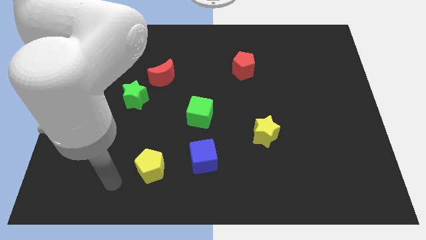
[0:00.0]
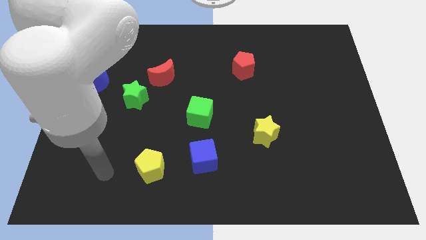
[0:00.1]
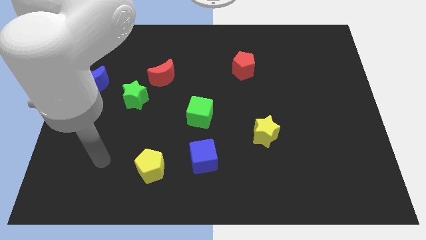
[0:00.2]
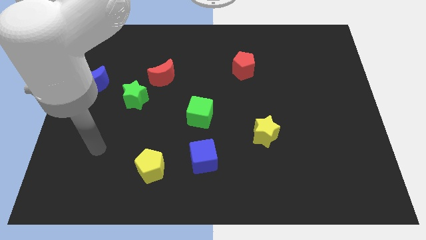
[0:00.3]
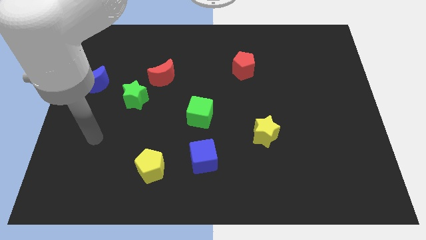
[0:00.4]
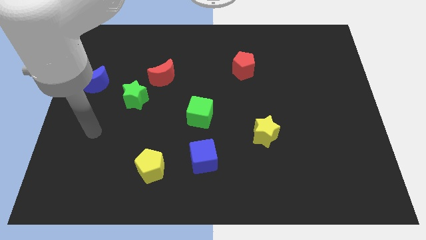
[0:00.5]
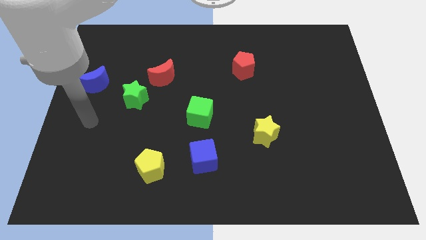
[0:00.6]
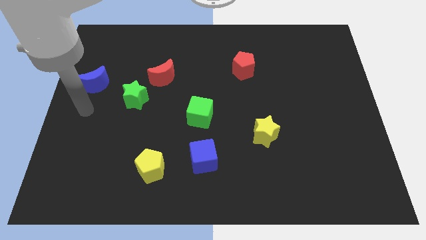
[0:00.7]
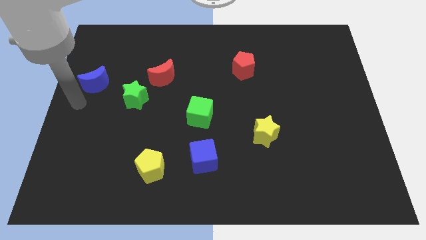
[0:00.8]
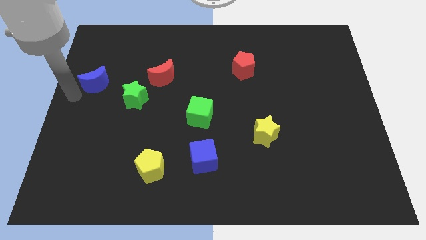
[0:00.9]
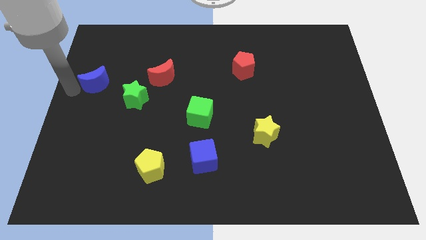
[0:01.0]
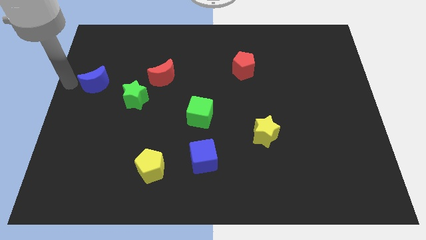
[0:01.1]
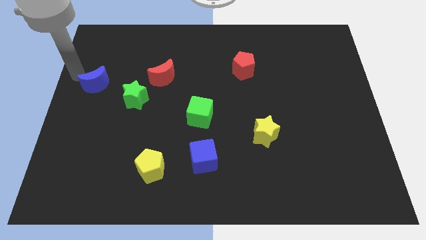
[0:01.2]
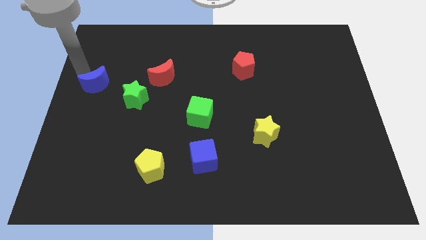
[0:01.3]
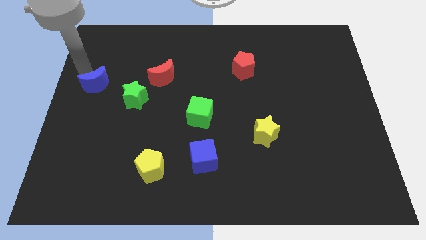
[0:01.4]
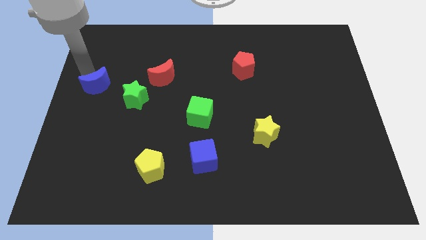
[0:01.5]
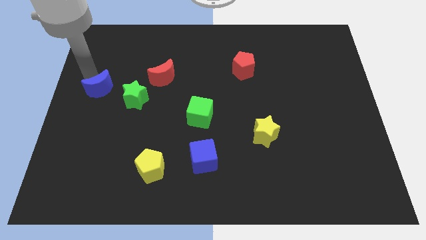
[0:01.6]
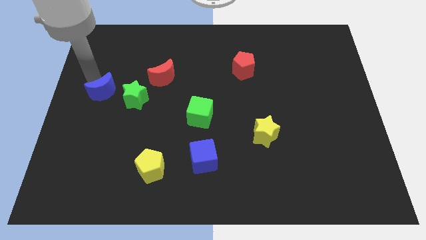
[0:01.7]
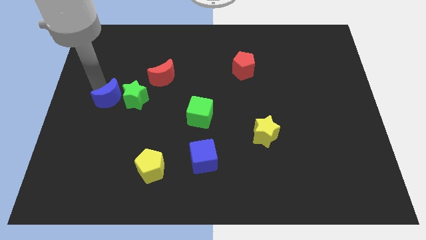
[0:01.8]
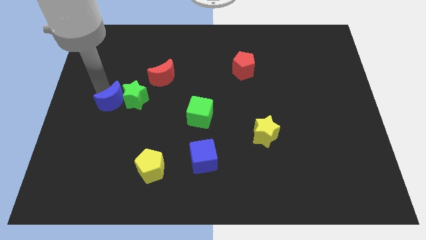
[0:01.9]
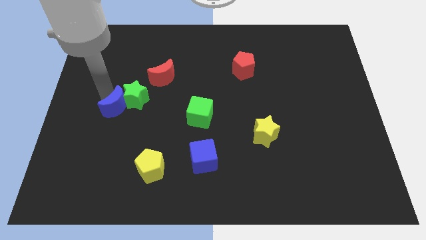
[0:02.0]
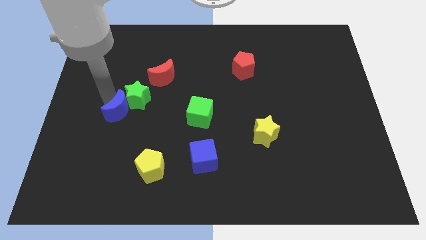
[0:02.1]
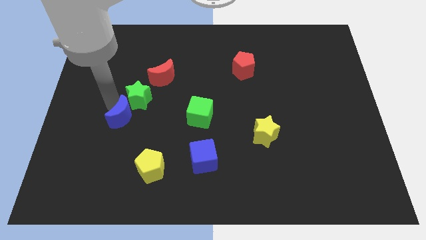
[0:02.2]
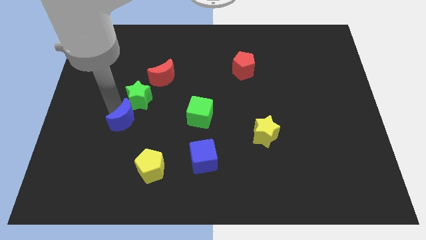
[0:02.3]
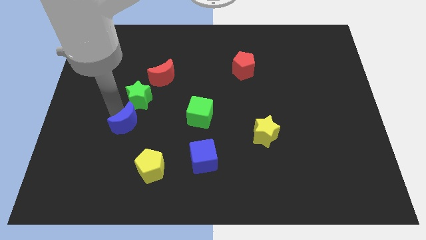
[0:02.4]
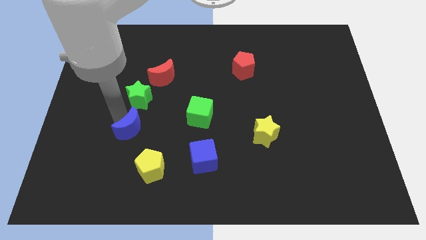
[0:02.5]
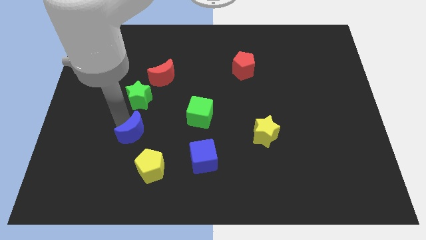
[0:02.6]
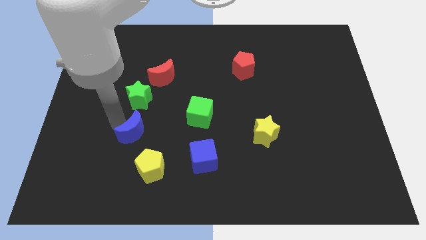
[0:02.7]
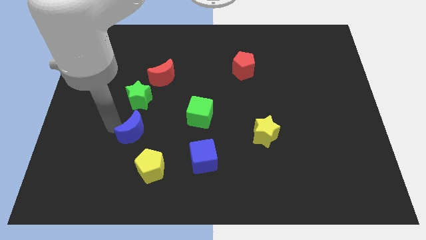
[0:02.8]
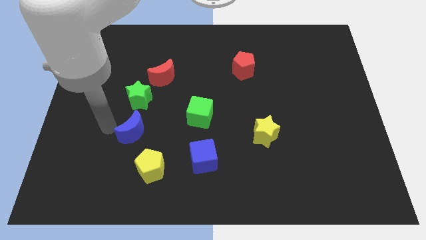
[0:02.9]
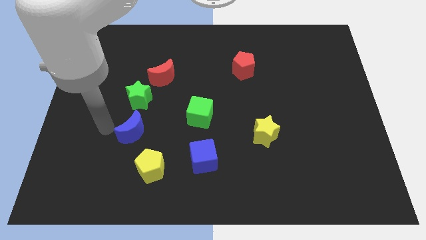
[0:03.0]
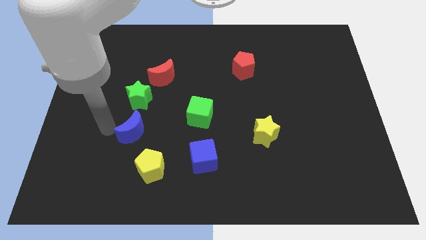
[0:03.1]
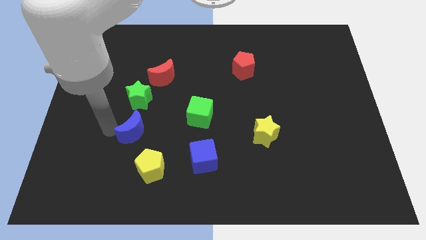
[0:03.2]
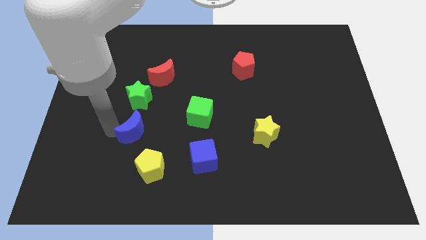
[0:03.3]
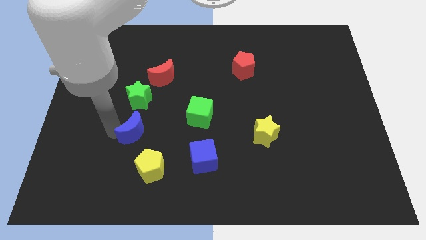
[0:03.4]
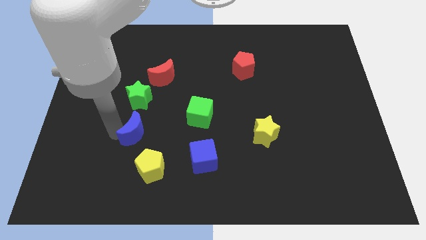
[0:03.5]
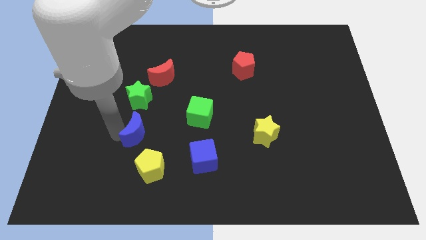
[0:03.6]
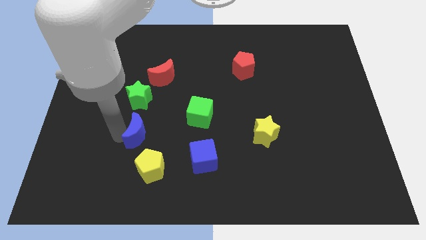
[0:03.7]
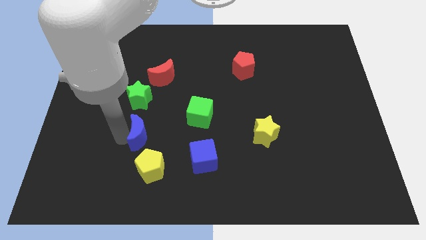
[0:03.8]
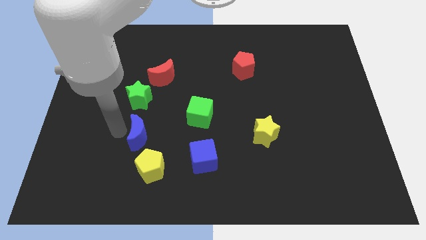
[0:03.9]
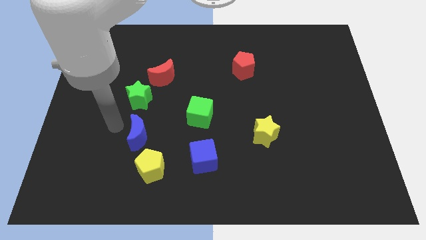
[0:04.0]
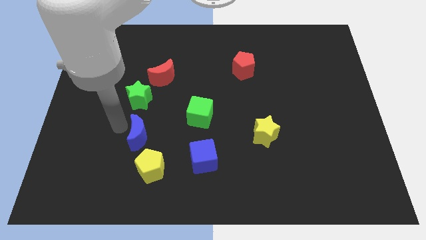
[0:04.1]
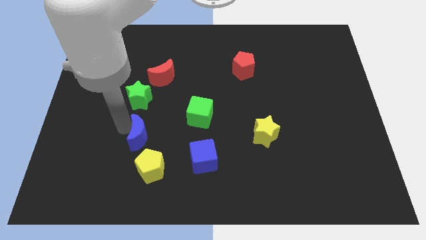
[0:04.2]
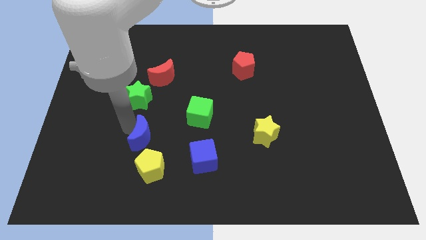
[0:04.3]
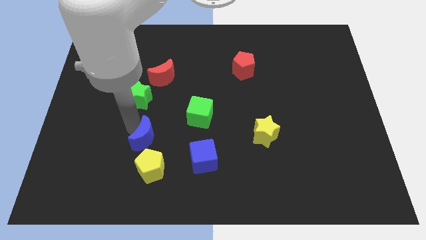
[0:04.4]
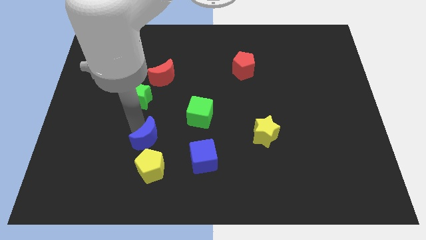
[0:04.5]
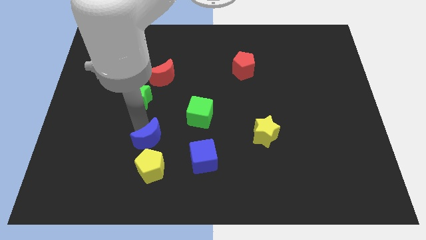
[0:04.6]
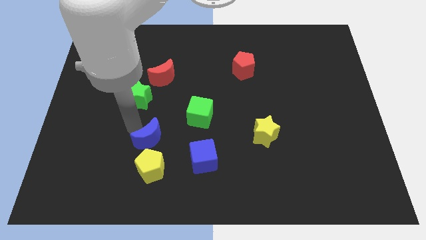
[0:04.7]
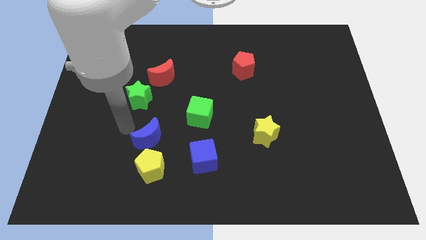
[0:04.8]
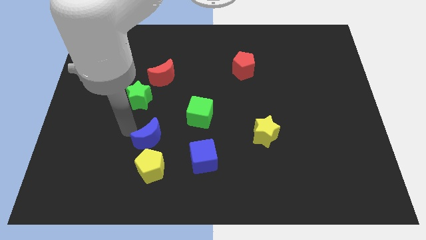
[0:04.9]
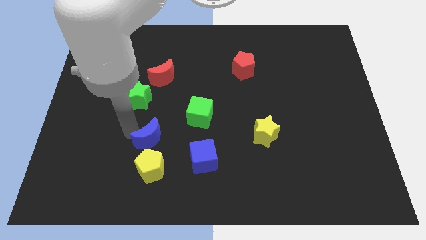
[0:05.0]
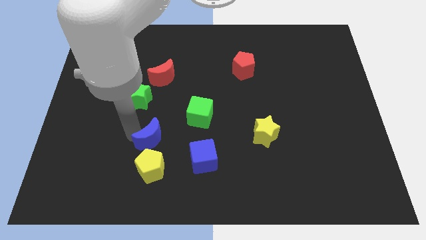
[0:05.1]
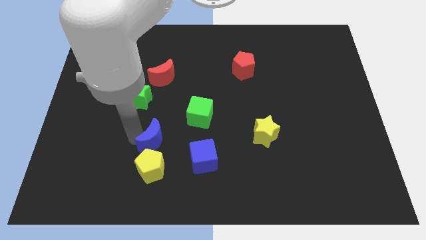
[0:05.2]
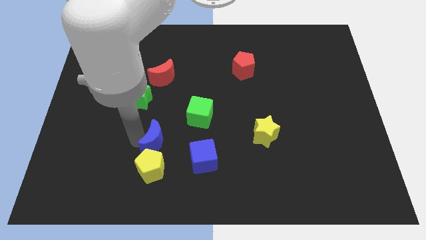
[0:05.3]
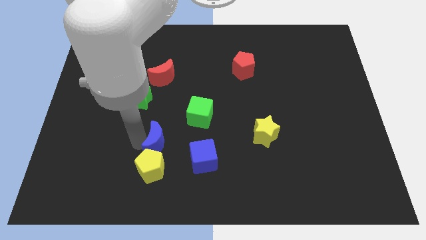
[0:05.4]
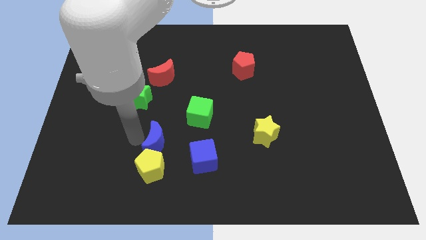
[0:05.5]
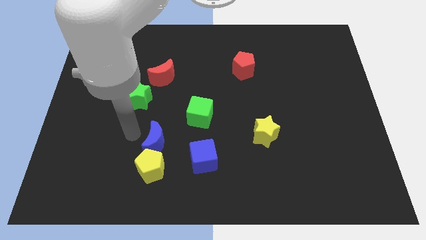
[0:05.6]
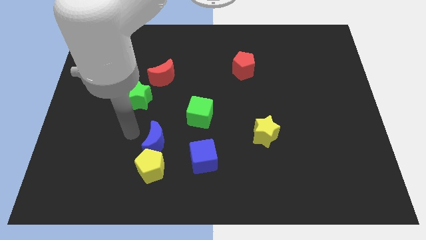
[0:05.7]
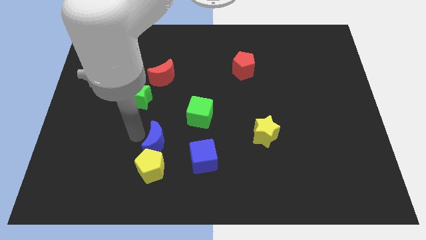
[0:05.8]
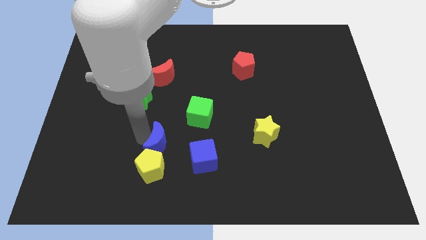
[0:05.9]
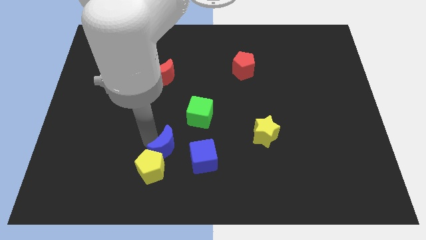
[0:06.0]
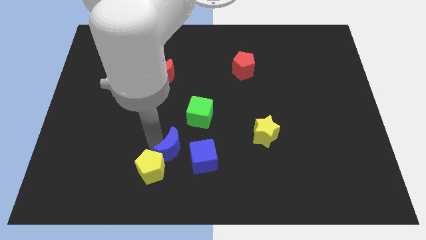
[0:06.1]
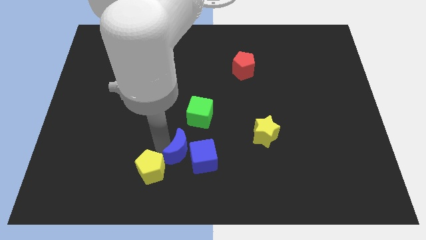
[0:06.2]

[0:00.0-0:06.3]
slide the blue moon close to the blue cube

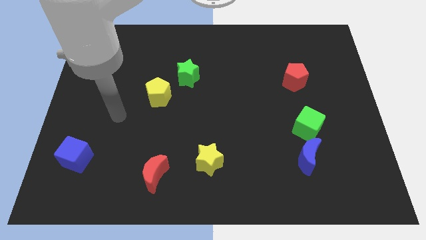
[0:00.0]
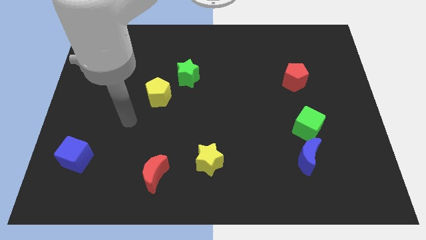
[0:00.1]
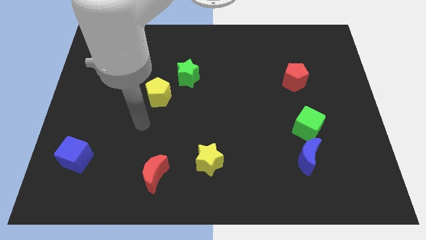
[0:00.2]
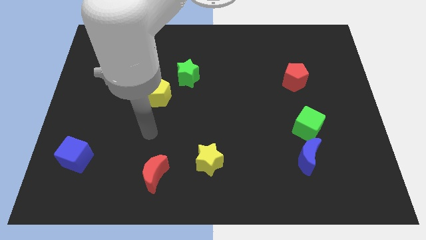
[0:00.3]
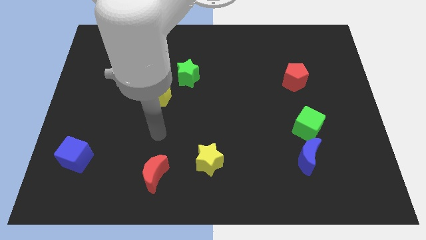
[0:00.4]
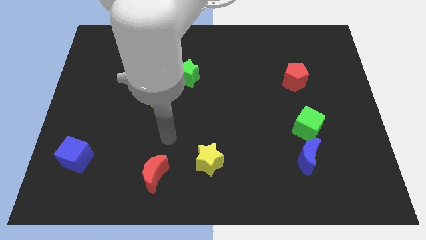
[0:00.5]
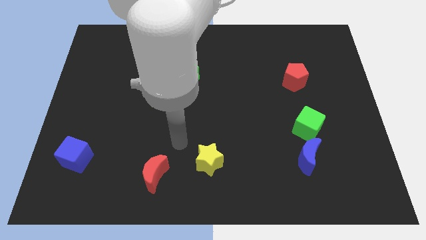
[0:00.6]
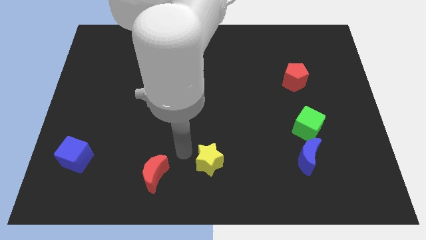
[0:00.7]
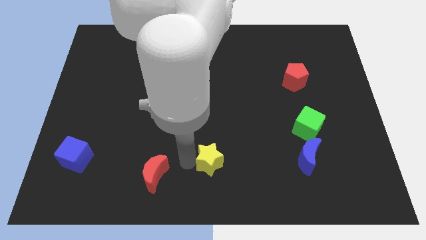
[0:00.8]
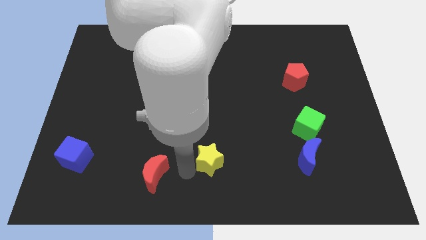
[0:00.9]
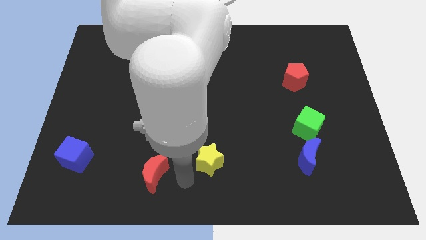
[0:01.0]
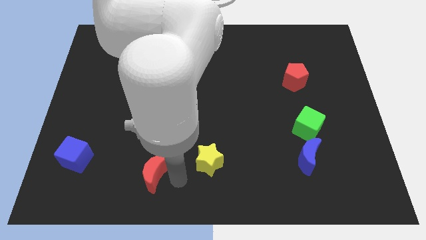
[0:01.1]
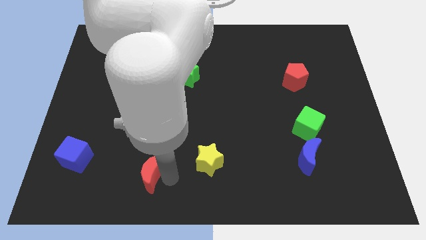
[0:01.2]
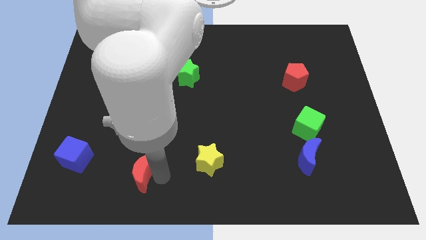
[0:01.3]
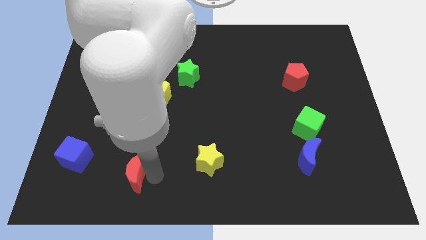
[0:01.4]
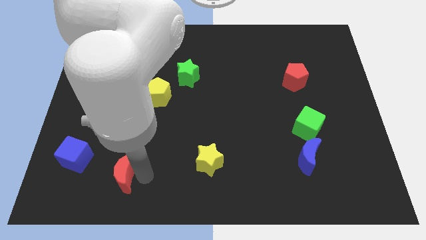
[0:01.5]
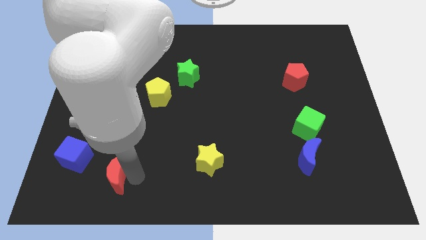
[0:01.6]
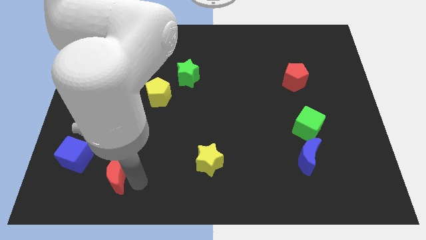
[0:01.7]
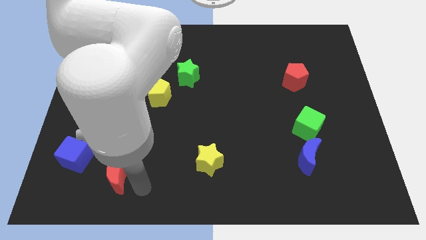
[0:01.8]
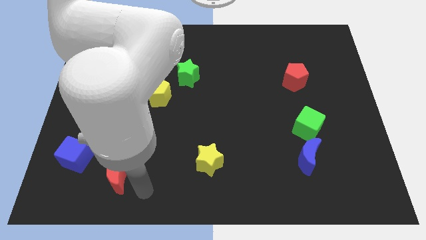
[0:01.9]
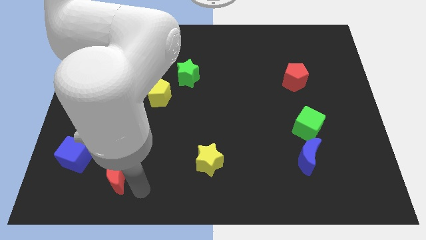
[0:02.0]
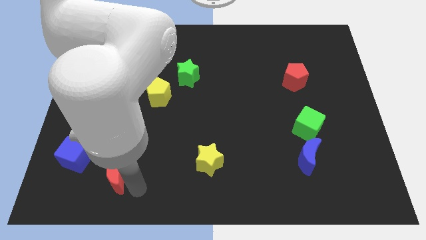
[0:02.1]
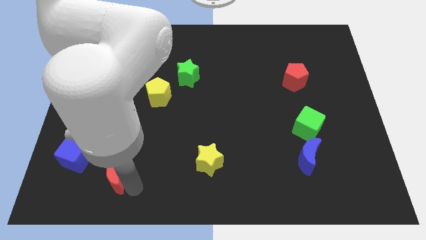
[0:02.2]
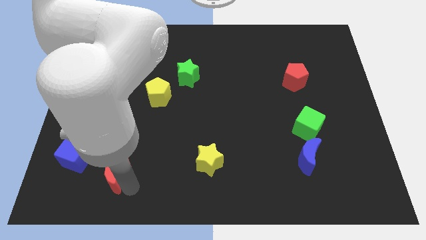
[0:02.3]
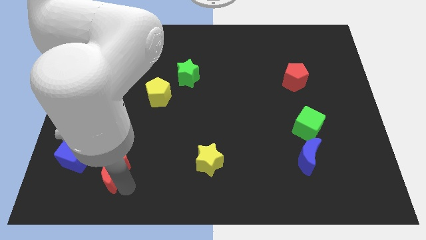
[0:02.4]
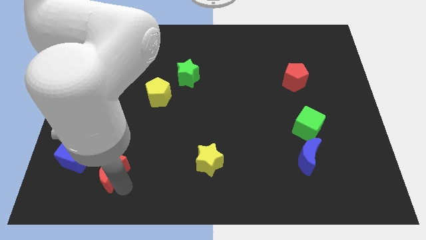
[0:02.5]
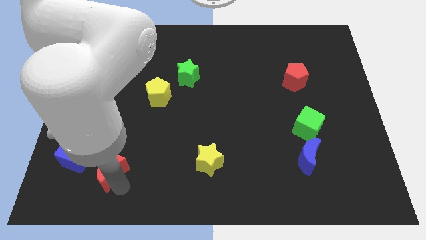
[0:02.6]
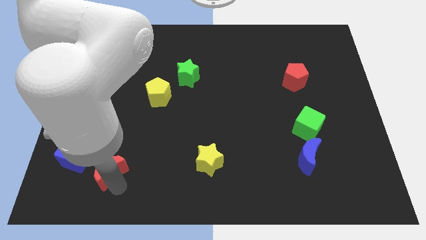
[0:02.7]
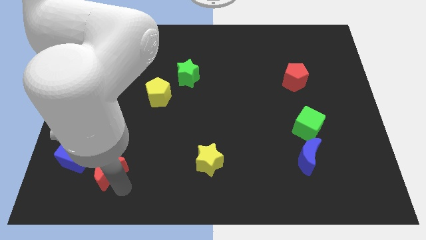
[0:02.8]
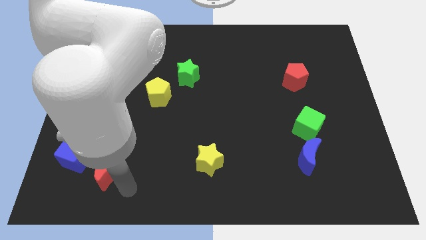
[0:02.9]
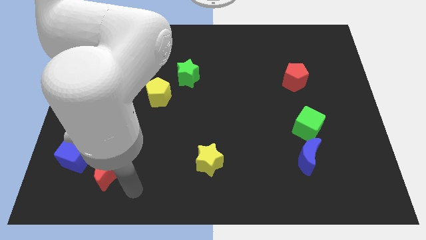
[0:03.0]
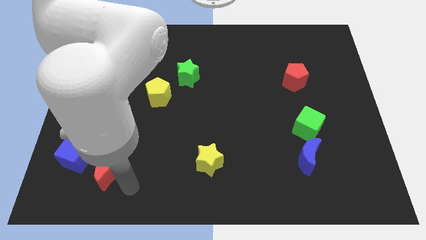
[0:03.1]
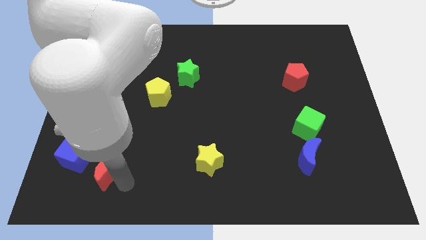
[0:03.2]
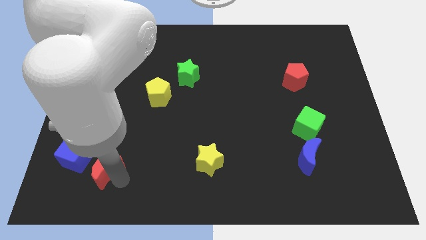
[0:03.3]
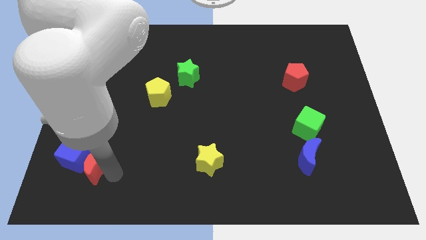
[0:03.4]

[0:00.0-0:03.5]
put the red moon towards the blue cube
